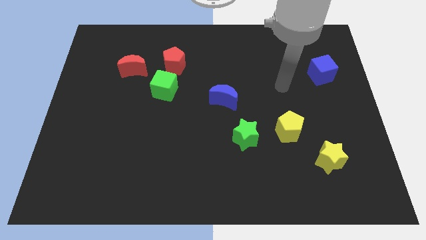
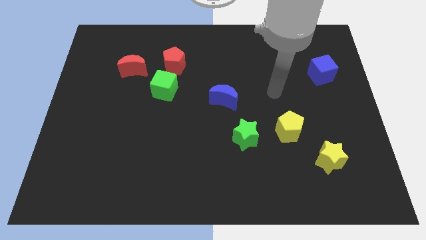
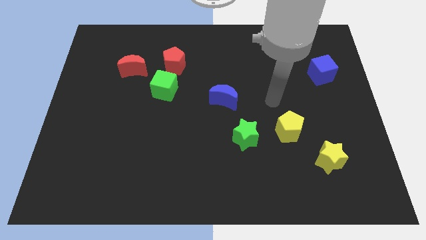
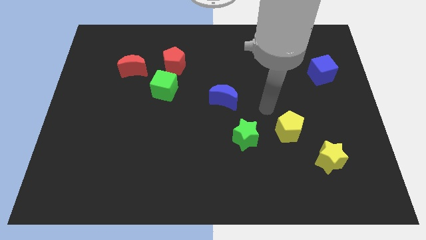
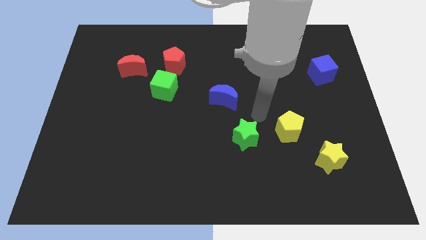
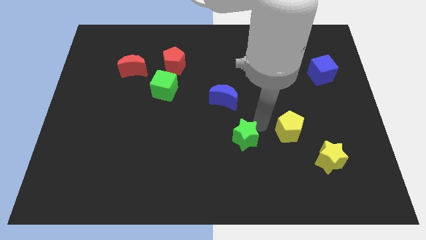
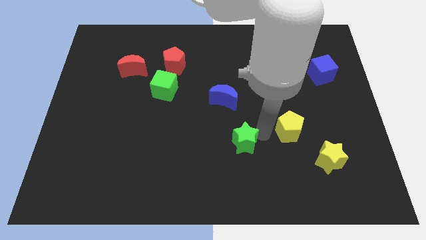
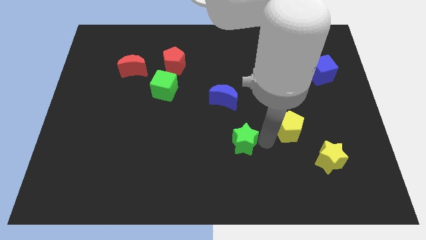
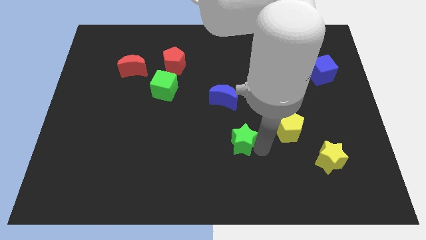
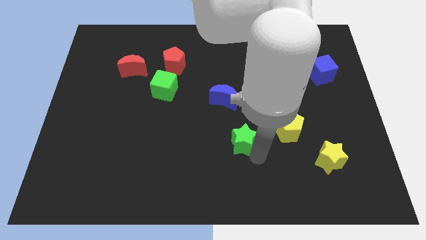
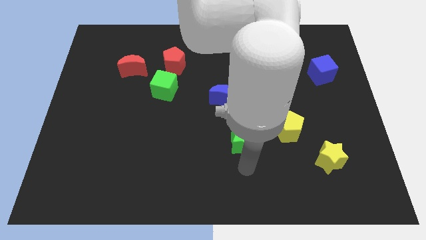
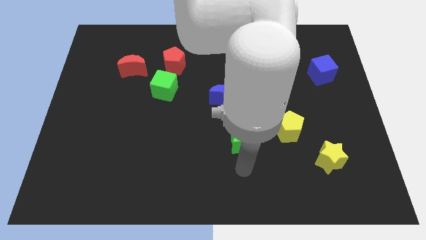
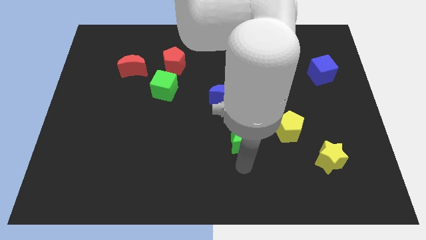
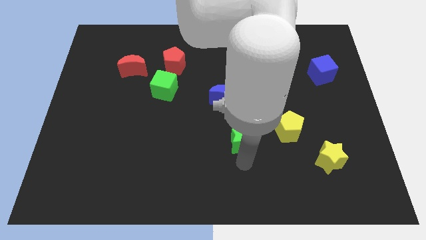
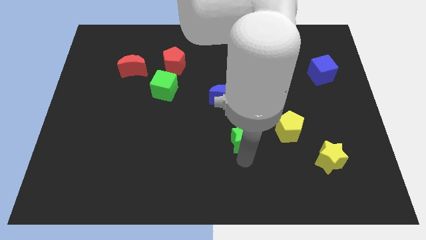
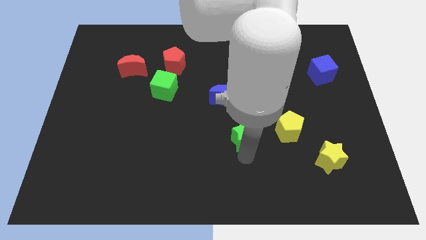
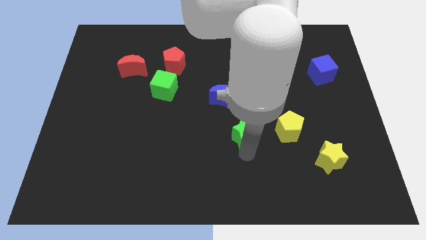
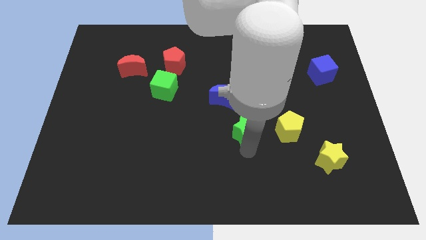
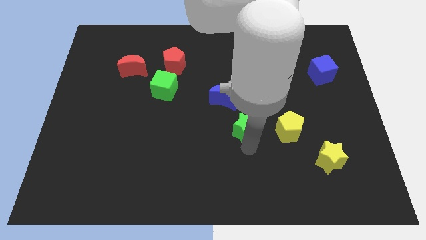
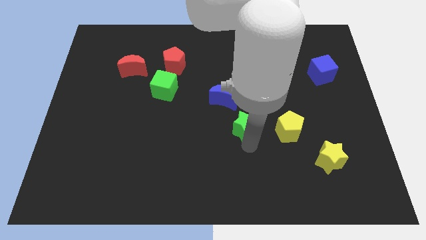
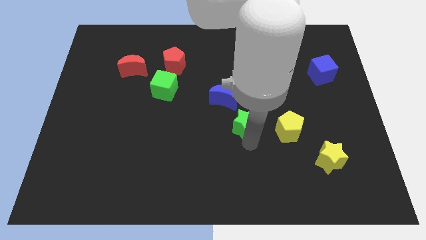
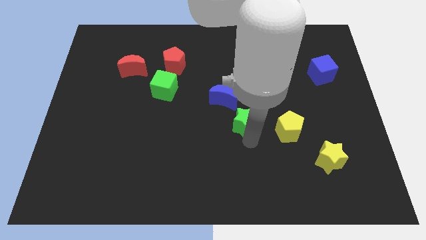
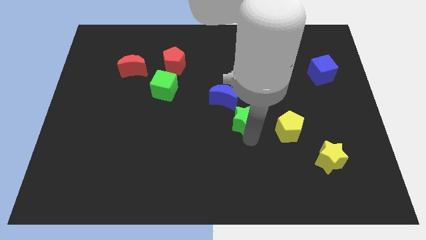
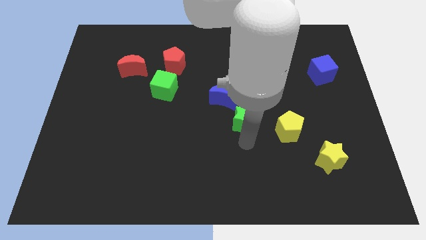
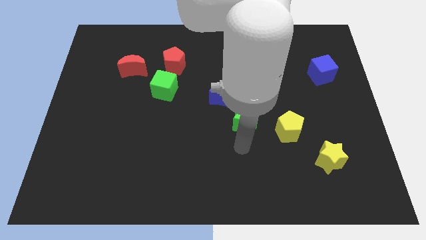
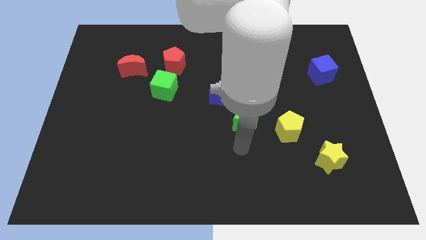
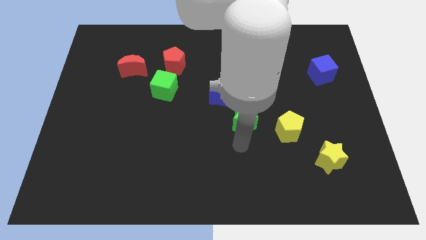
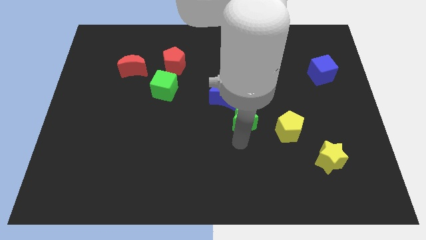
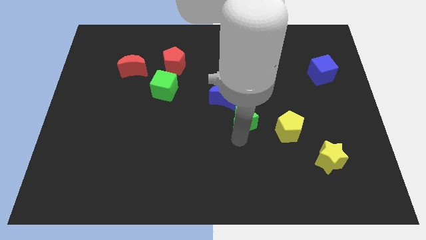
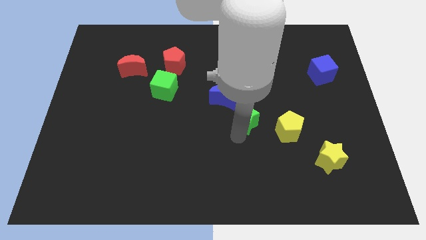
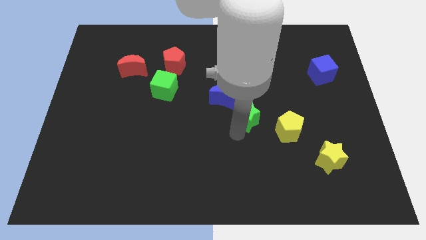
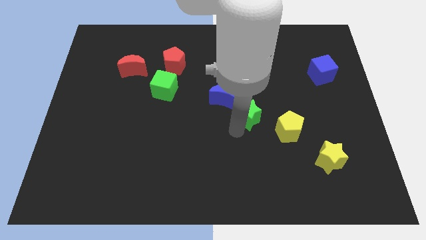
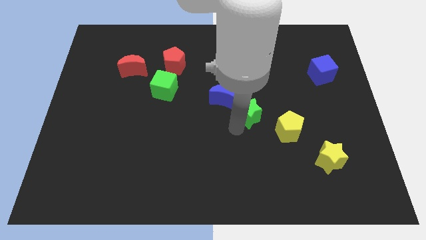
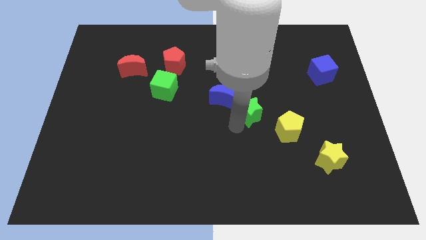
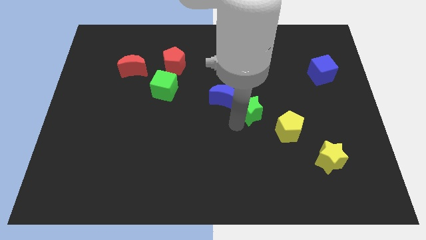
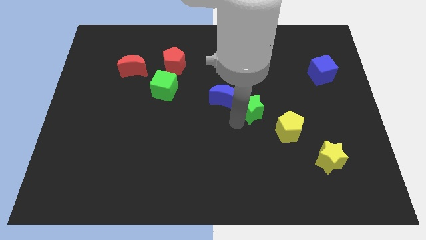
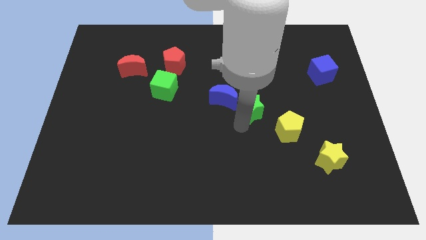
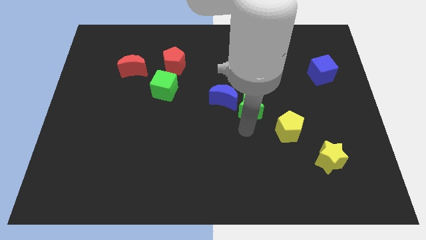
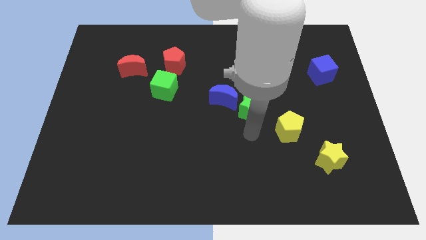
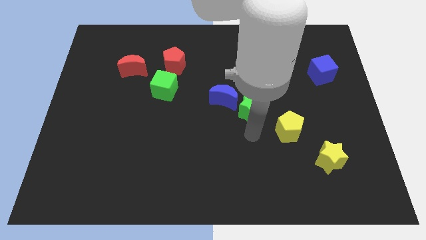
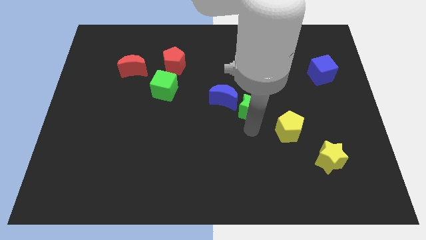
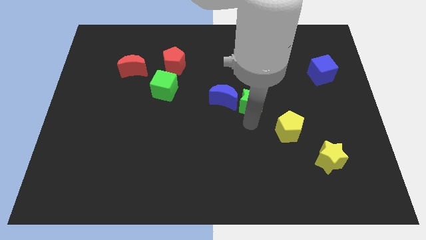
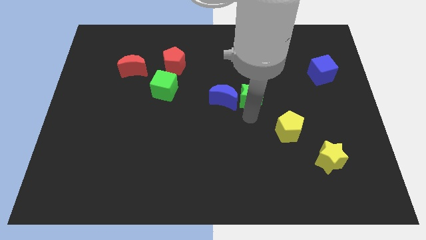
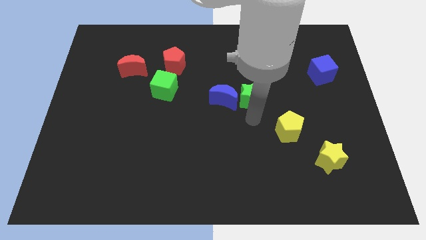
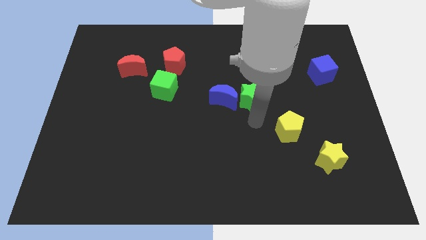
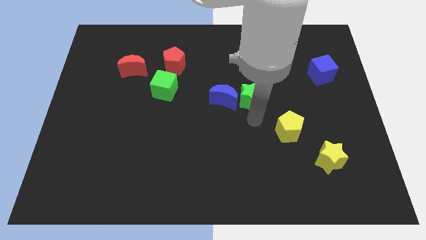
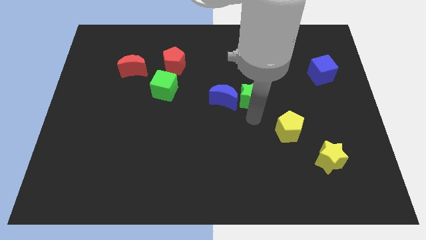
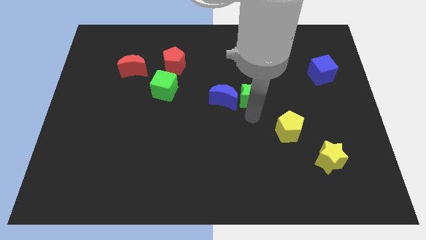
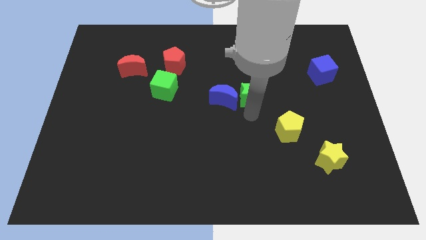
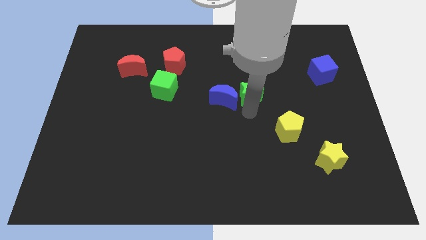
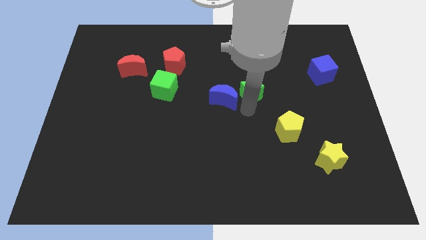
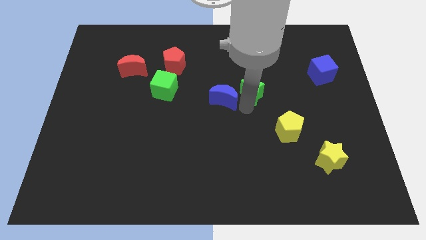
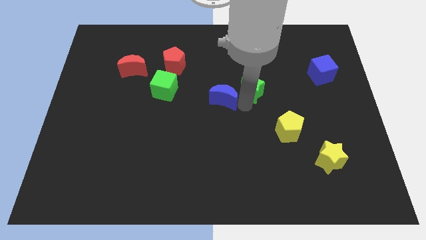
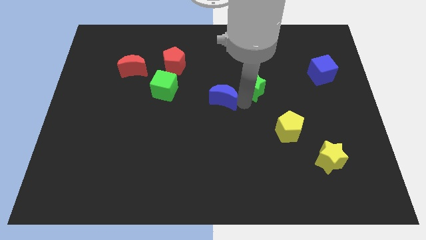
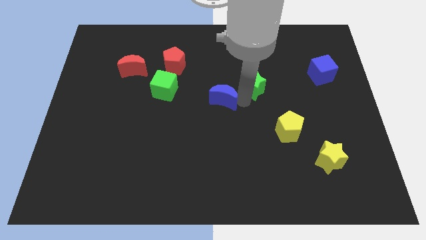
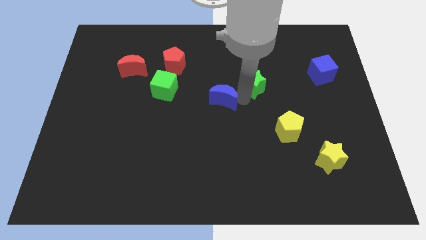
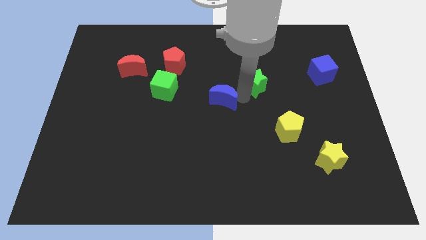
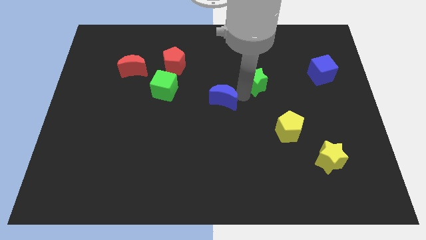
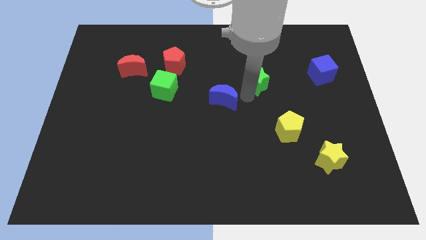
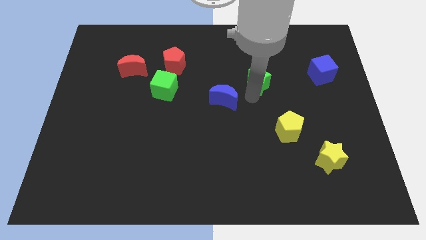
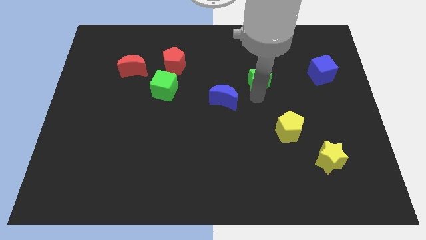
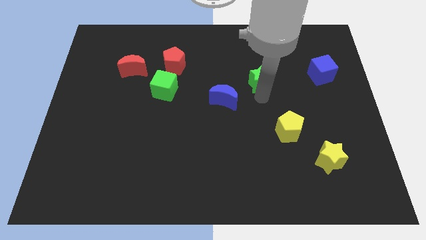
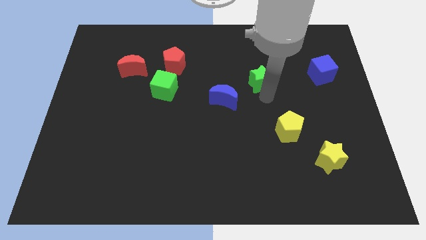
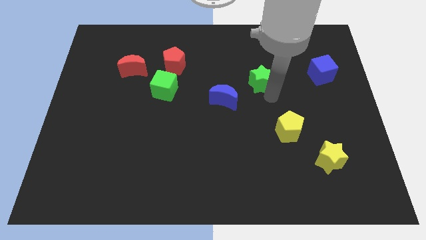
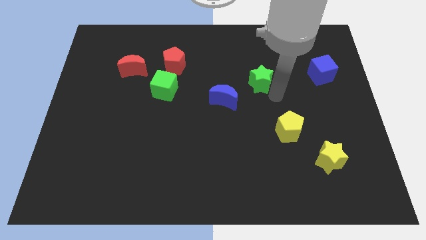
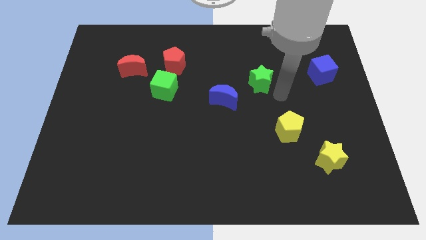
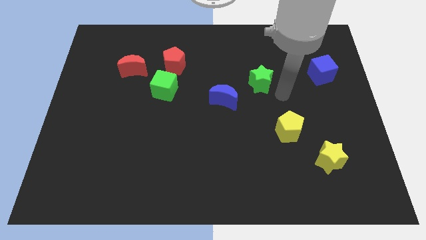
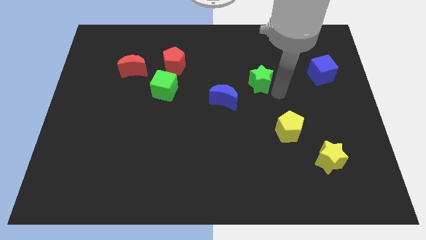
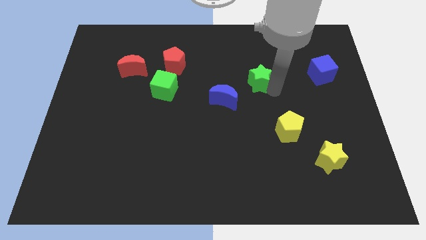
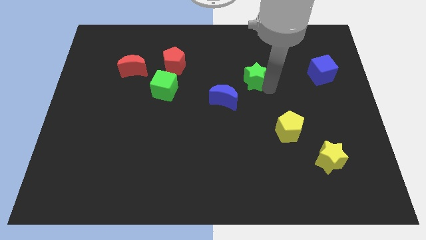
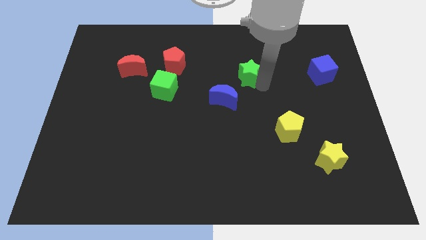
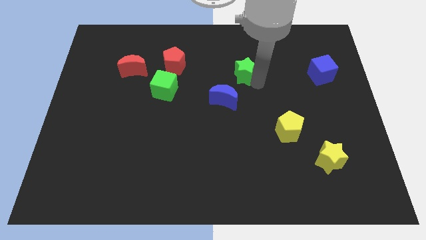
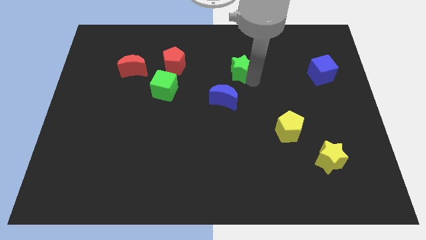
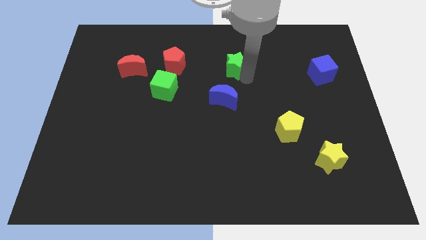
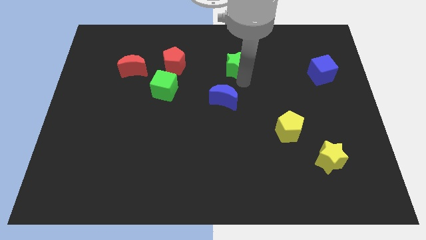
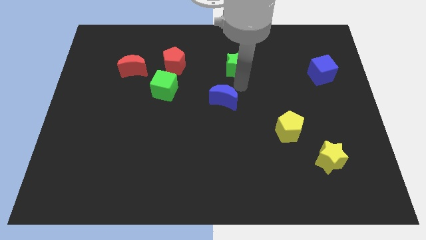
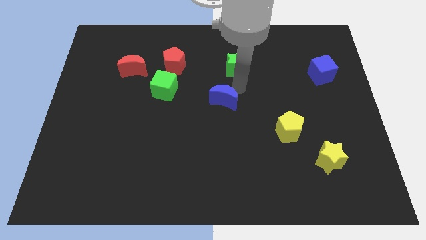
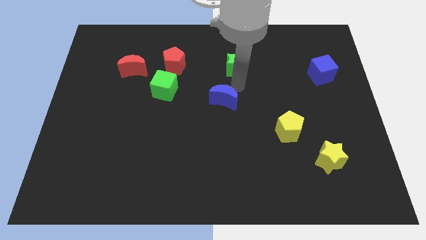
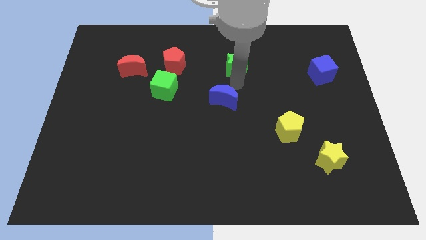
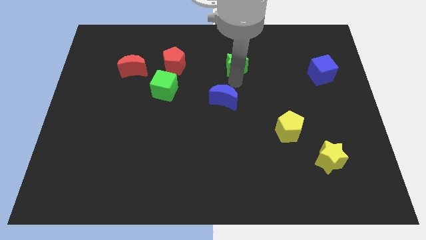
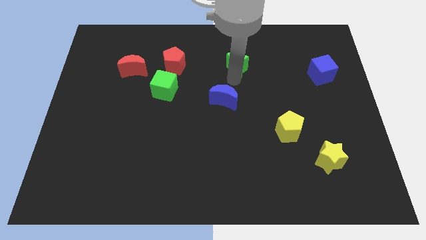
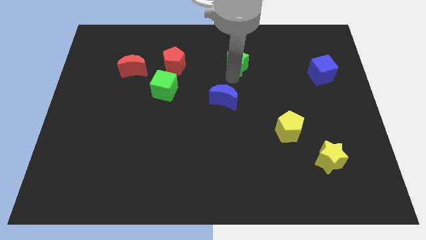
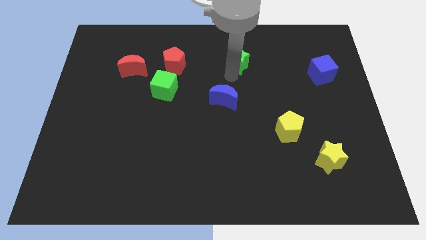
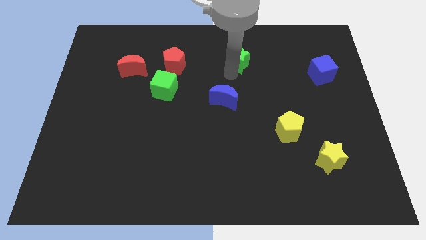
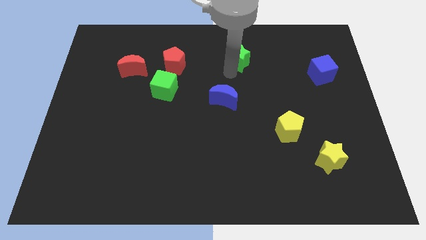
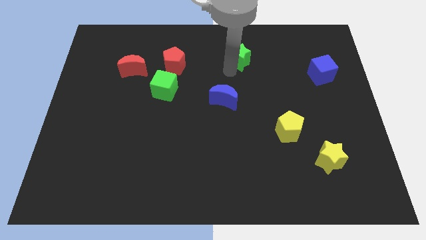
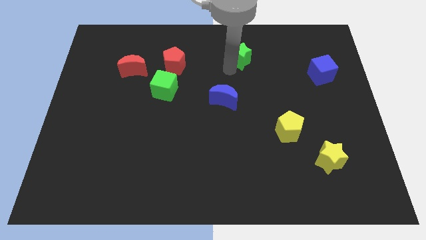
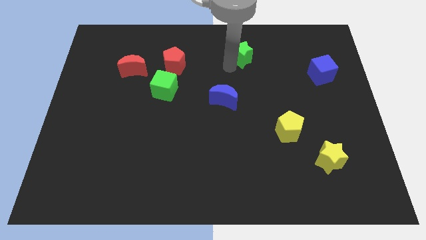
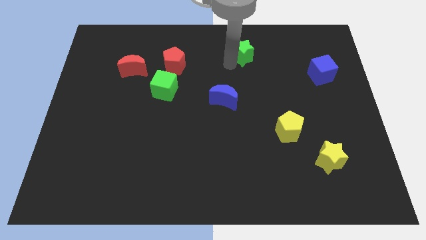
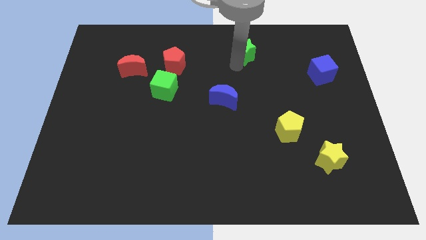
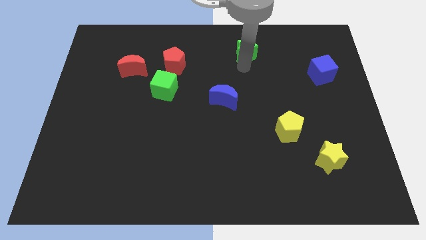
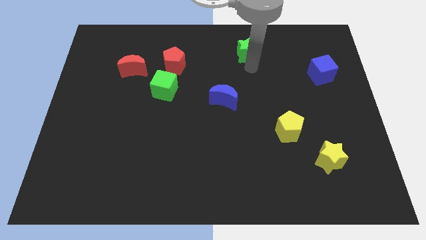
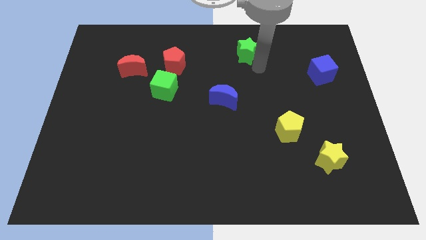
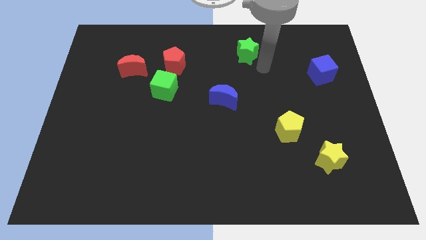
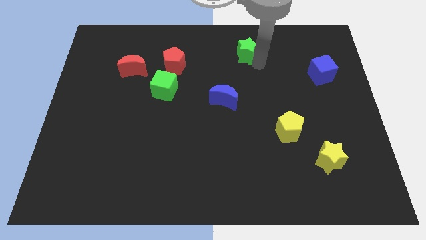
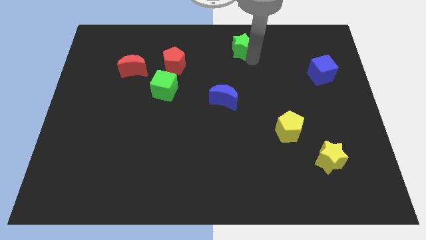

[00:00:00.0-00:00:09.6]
put the green star to the top side
